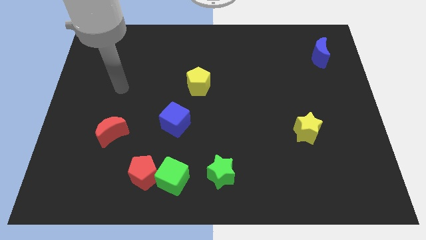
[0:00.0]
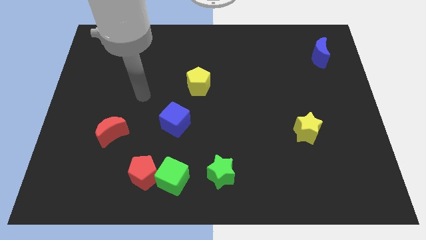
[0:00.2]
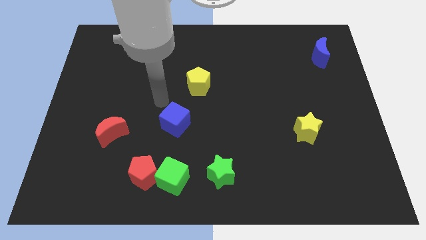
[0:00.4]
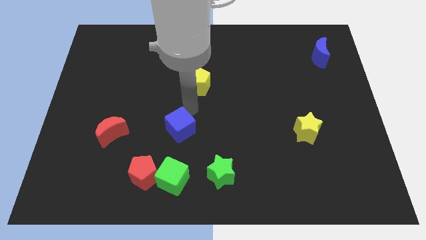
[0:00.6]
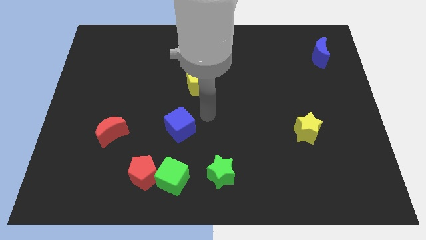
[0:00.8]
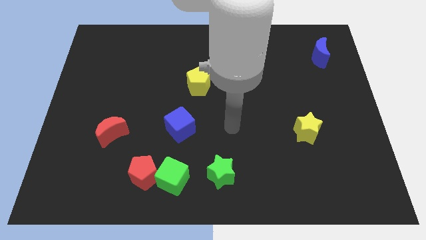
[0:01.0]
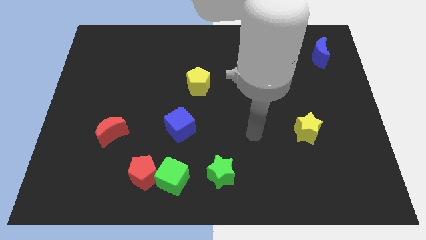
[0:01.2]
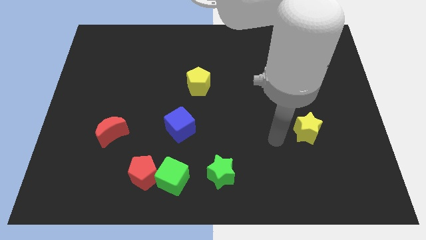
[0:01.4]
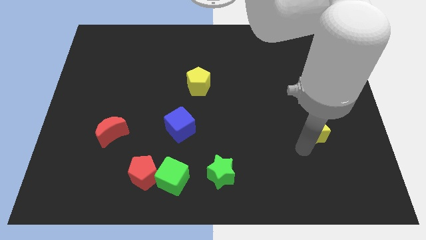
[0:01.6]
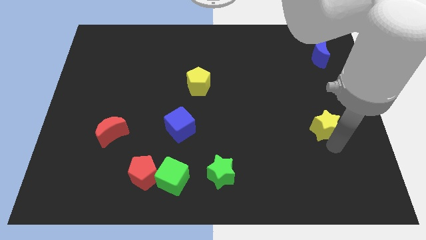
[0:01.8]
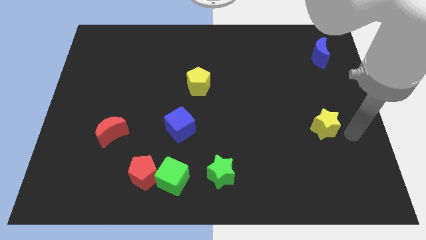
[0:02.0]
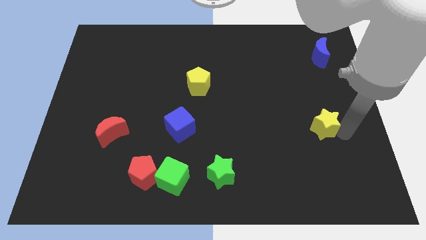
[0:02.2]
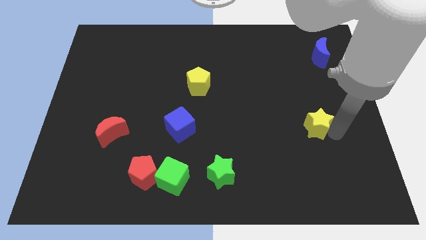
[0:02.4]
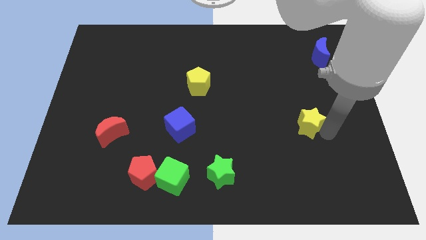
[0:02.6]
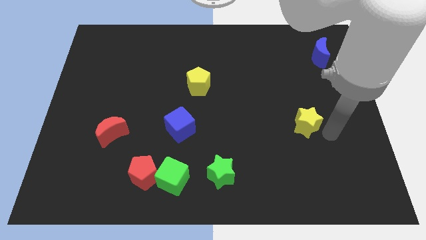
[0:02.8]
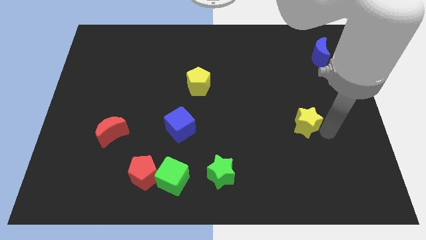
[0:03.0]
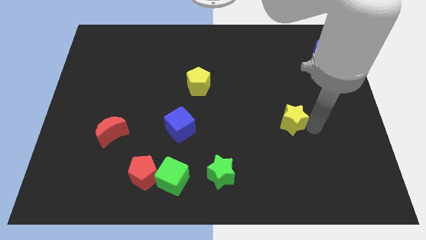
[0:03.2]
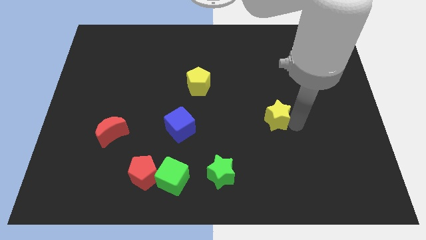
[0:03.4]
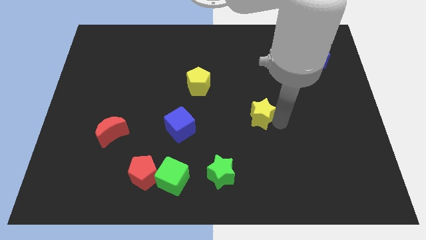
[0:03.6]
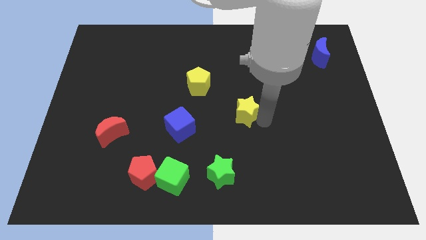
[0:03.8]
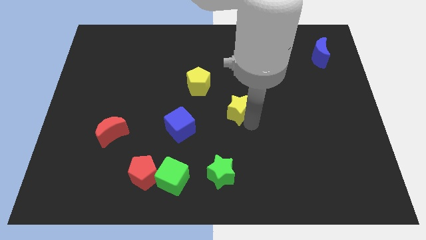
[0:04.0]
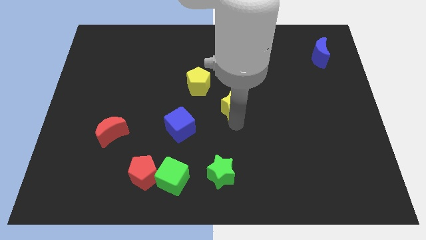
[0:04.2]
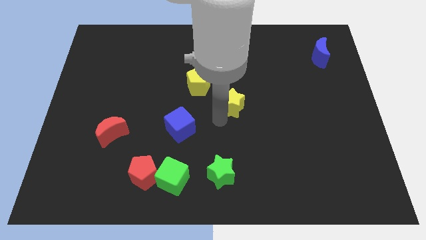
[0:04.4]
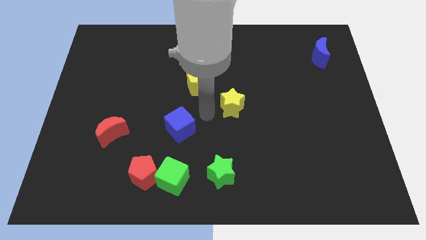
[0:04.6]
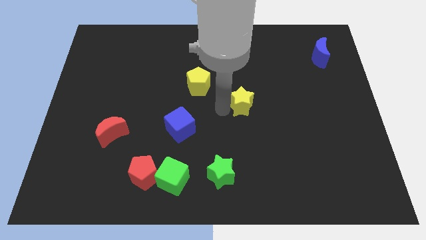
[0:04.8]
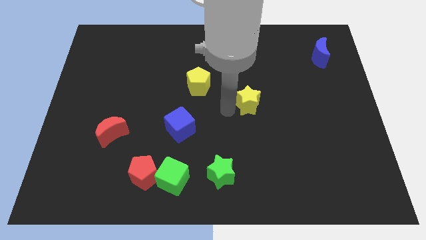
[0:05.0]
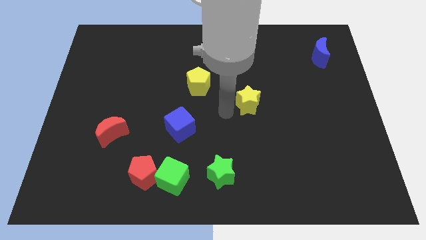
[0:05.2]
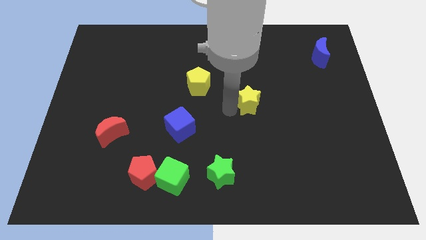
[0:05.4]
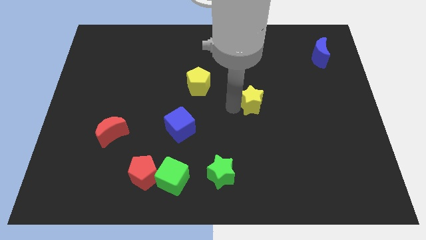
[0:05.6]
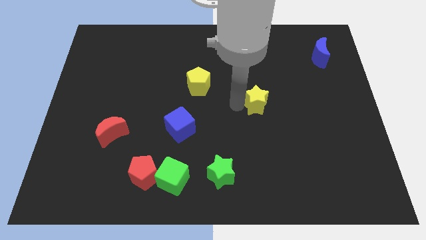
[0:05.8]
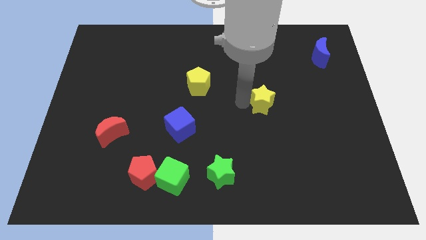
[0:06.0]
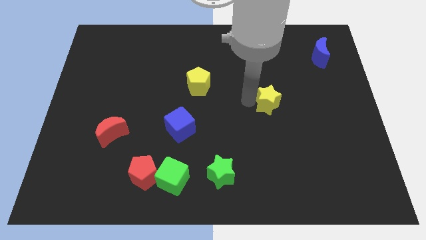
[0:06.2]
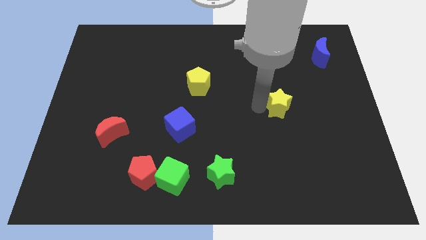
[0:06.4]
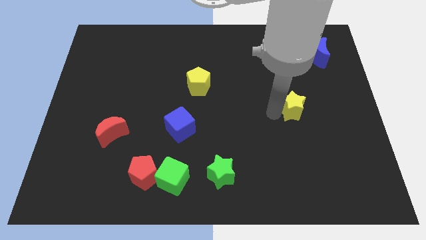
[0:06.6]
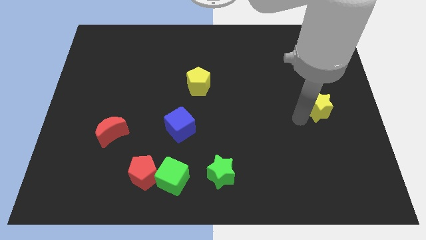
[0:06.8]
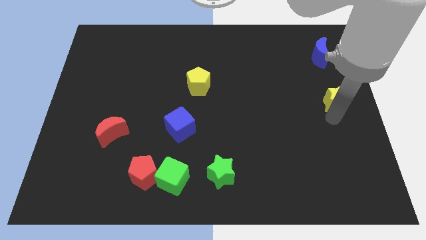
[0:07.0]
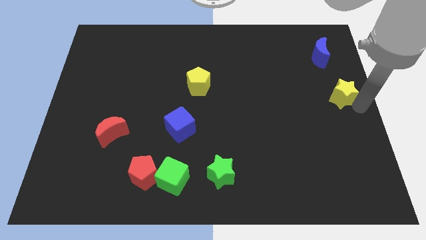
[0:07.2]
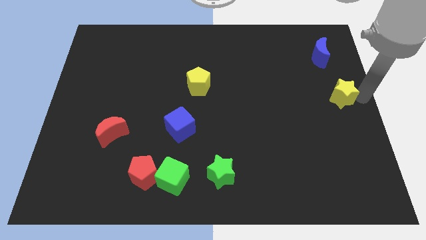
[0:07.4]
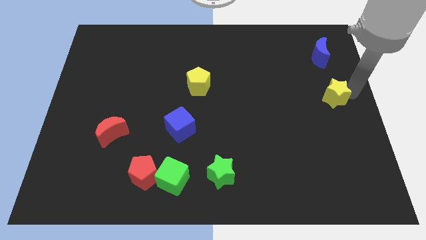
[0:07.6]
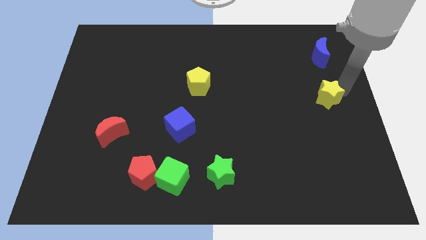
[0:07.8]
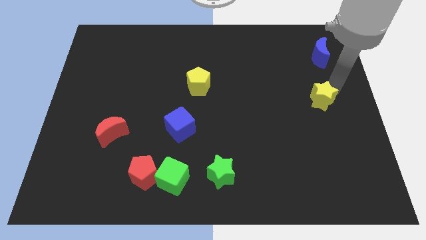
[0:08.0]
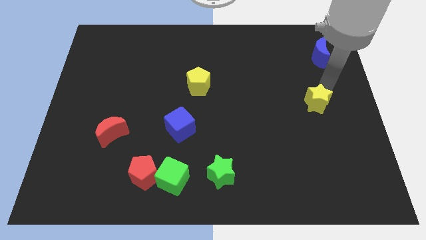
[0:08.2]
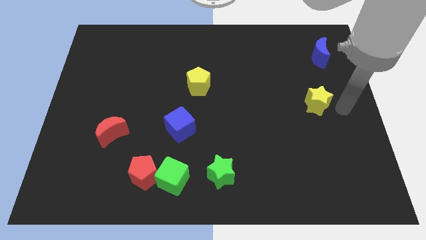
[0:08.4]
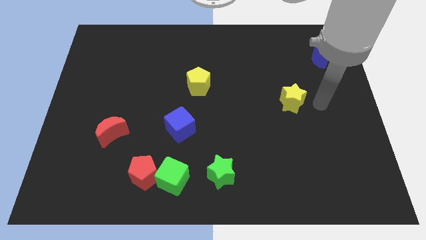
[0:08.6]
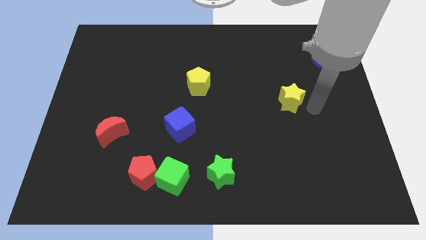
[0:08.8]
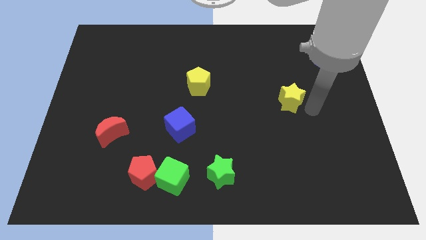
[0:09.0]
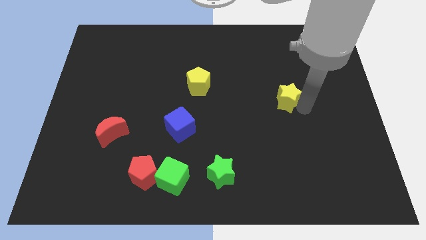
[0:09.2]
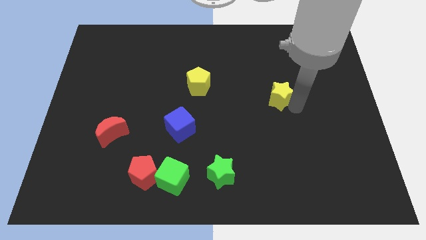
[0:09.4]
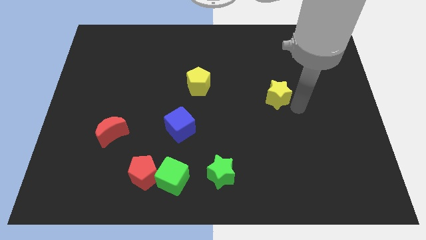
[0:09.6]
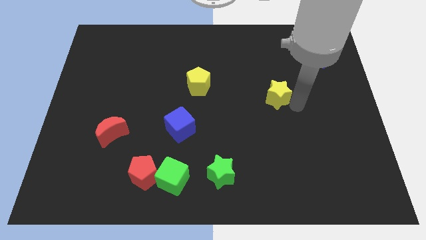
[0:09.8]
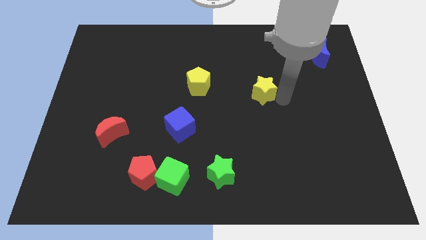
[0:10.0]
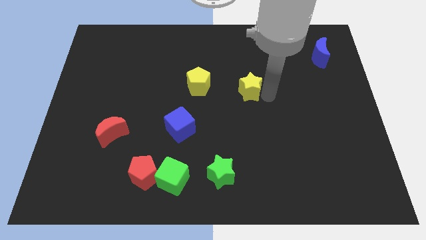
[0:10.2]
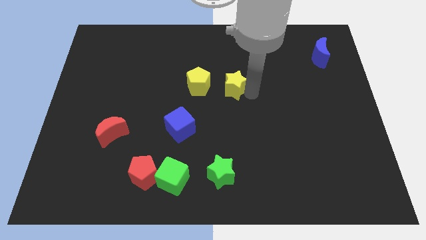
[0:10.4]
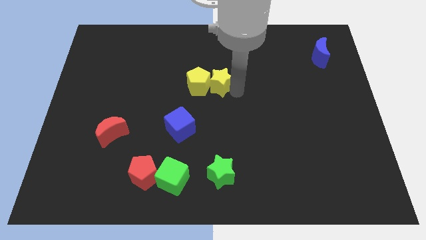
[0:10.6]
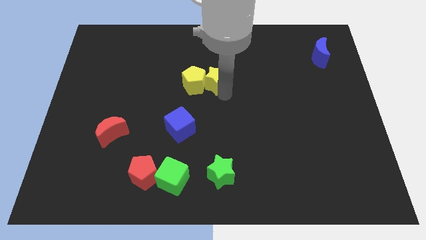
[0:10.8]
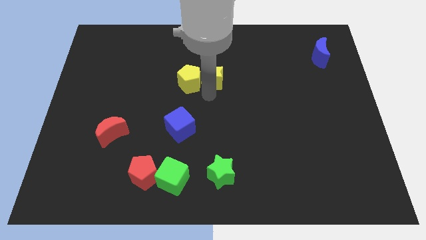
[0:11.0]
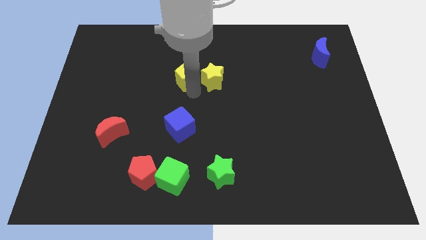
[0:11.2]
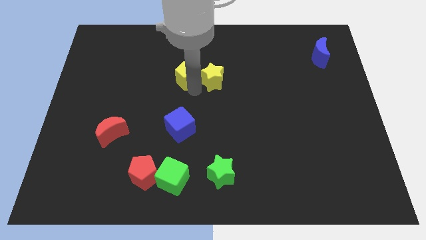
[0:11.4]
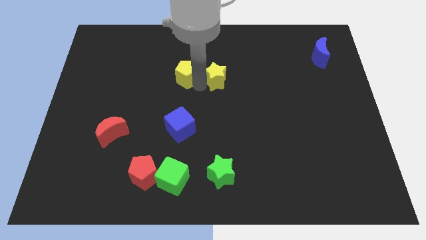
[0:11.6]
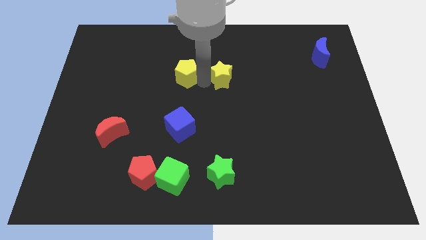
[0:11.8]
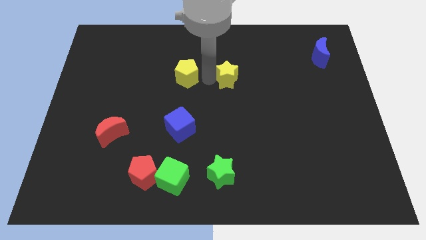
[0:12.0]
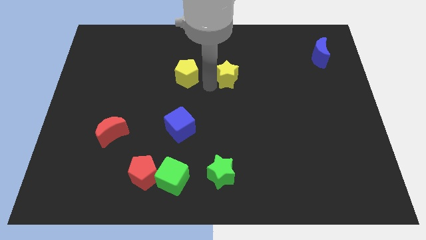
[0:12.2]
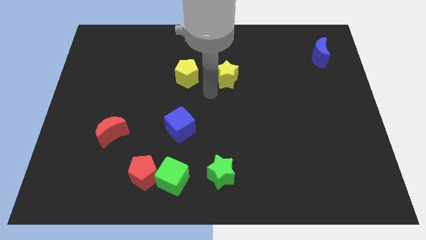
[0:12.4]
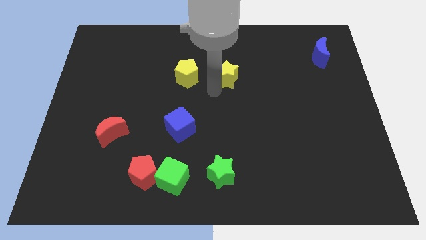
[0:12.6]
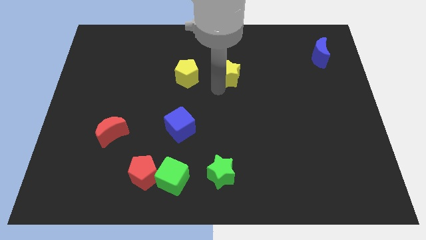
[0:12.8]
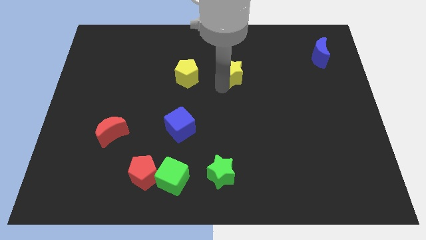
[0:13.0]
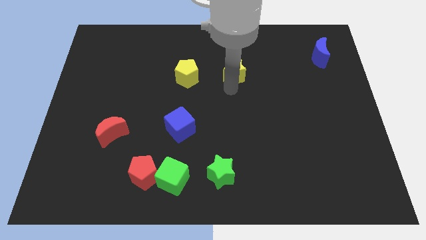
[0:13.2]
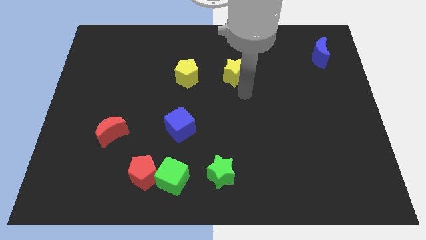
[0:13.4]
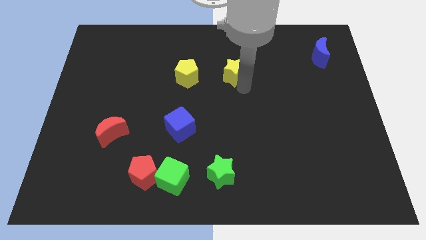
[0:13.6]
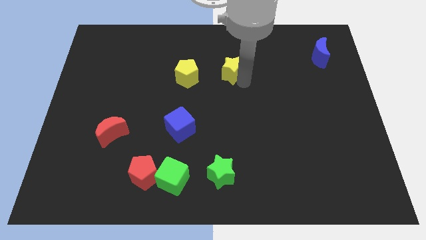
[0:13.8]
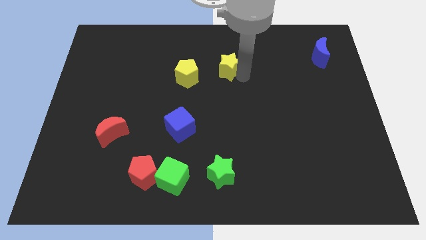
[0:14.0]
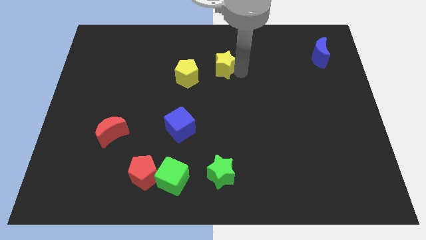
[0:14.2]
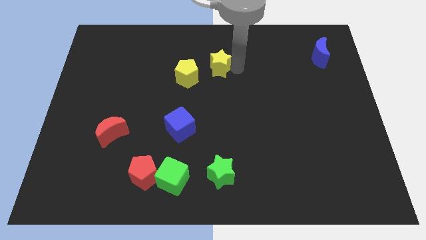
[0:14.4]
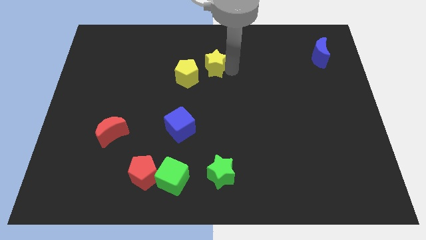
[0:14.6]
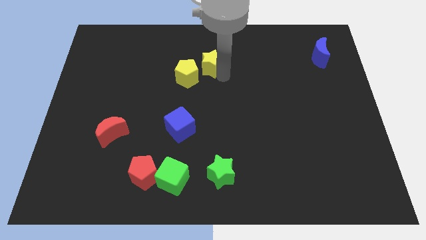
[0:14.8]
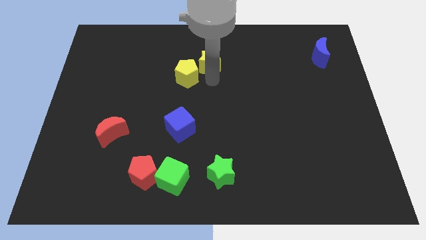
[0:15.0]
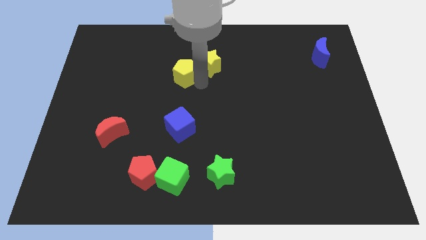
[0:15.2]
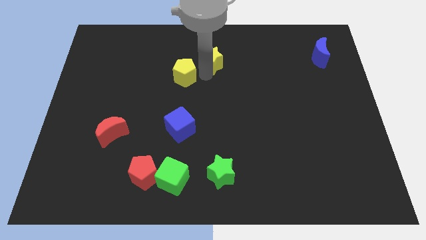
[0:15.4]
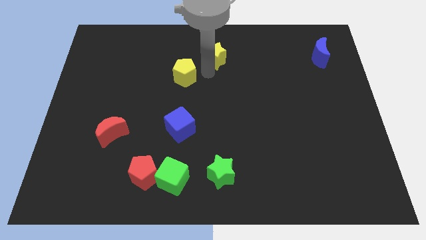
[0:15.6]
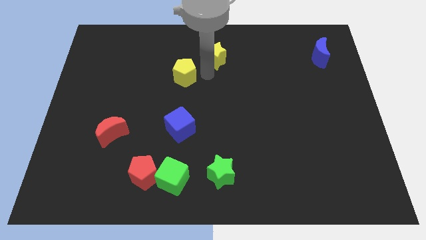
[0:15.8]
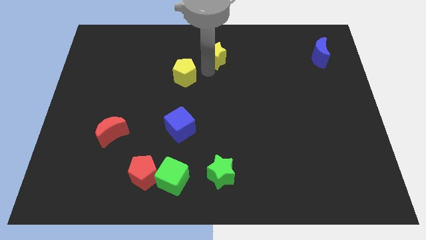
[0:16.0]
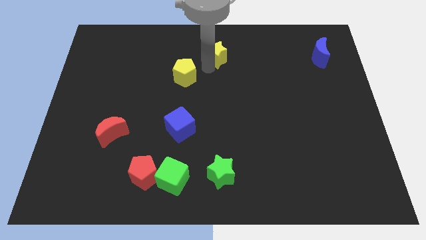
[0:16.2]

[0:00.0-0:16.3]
move the yellow star to the towards your base
